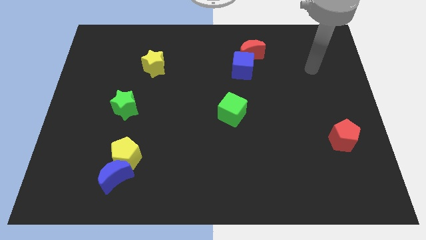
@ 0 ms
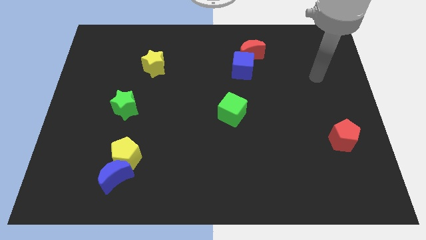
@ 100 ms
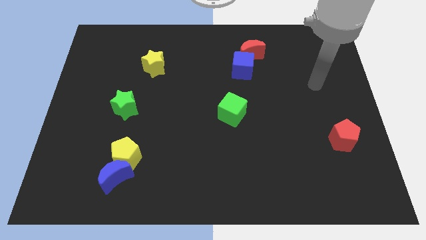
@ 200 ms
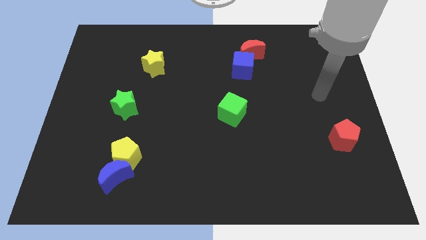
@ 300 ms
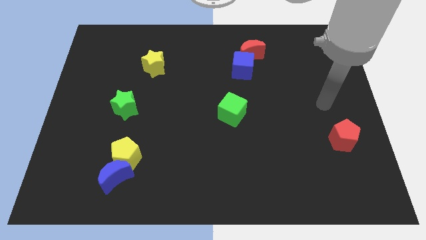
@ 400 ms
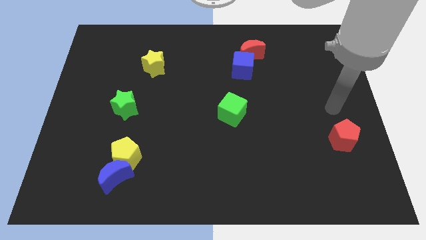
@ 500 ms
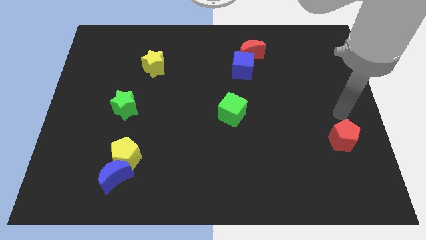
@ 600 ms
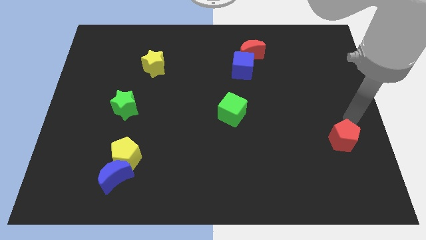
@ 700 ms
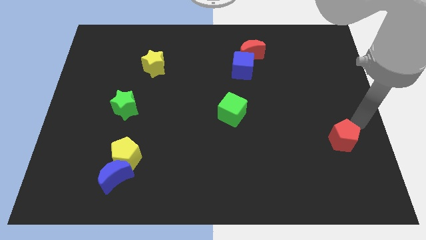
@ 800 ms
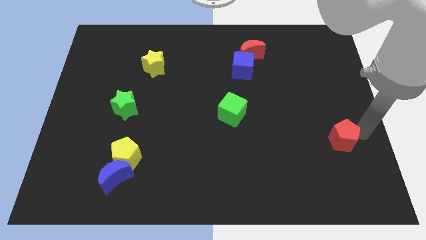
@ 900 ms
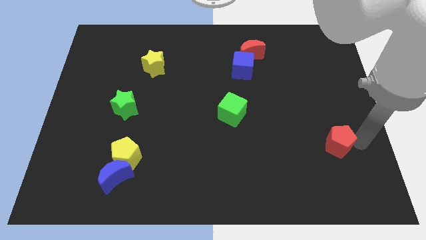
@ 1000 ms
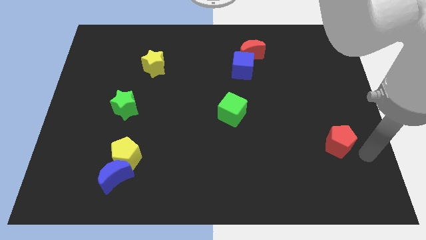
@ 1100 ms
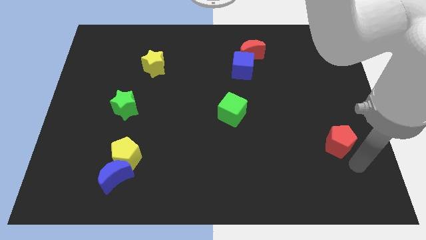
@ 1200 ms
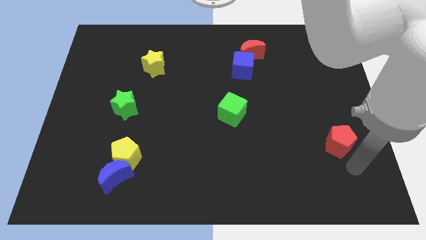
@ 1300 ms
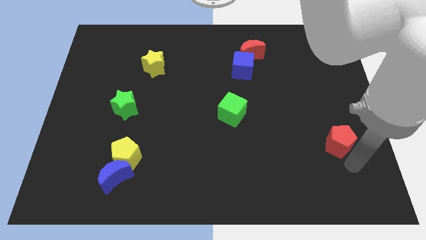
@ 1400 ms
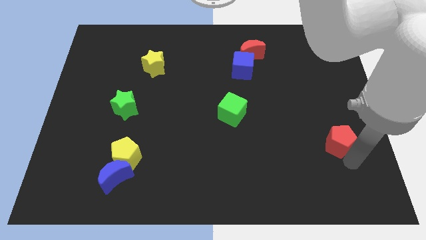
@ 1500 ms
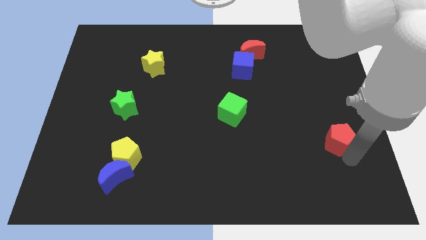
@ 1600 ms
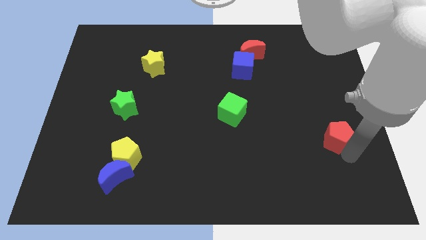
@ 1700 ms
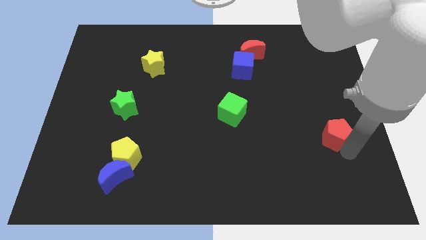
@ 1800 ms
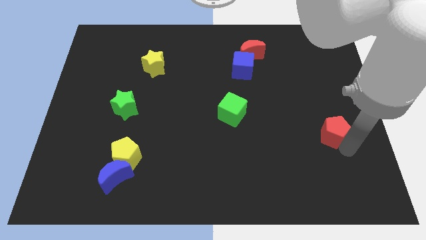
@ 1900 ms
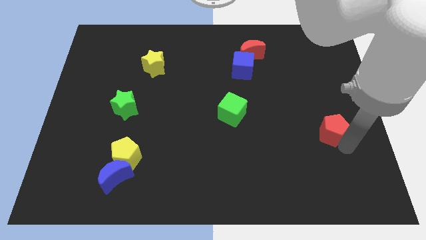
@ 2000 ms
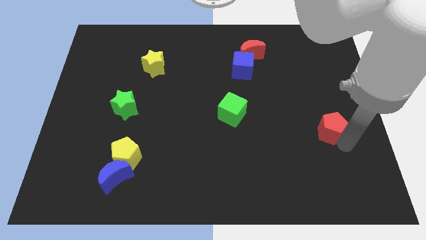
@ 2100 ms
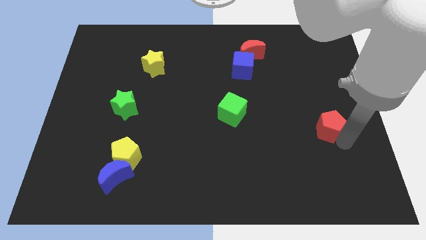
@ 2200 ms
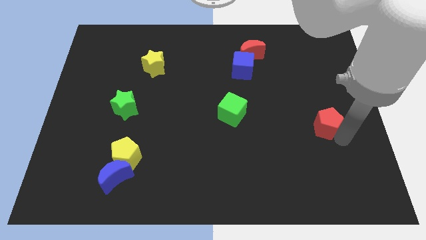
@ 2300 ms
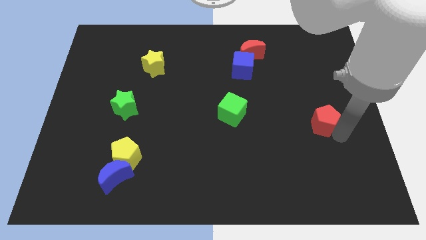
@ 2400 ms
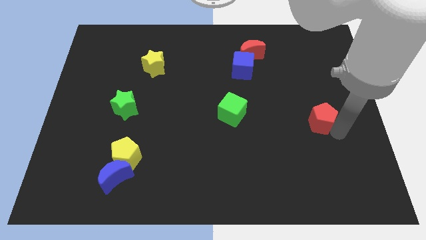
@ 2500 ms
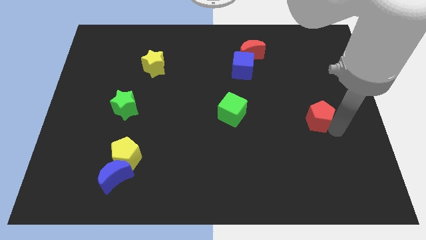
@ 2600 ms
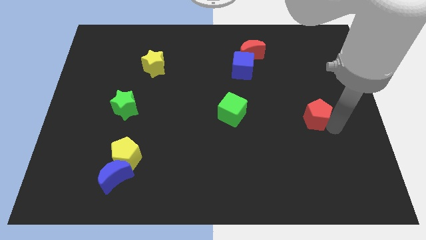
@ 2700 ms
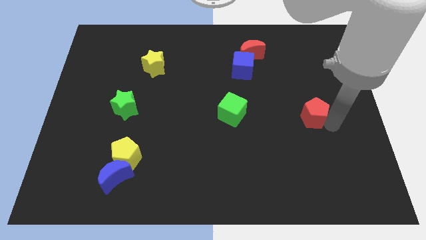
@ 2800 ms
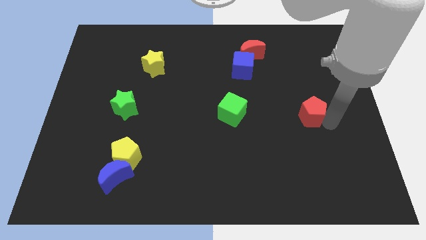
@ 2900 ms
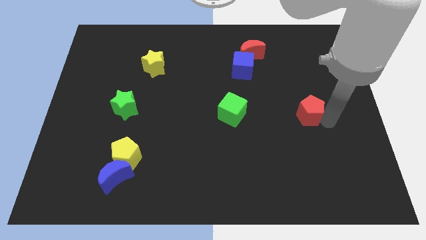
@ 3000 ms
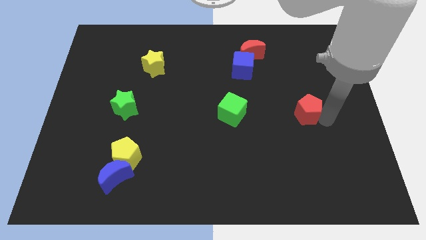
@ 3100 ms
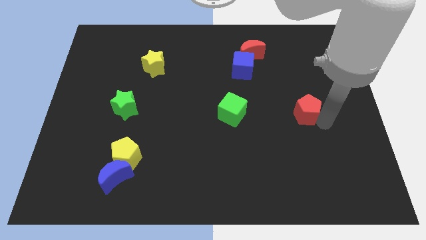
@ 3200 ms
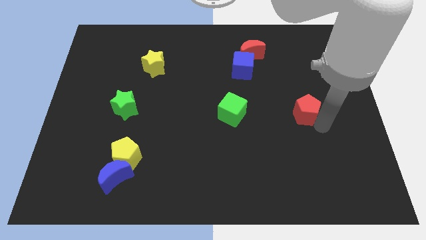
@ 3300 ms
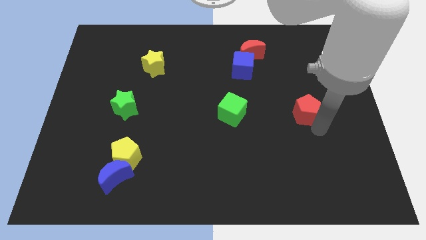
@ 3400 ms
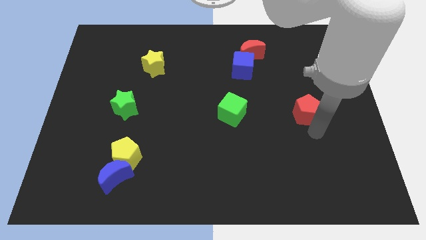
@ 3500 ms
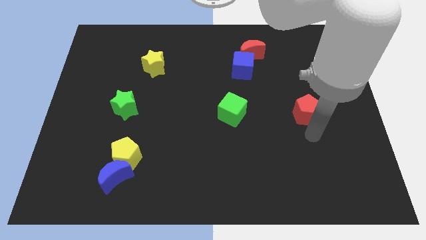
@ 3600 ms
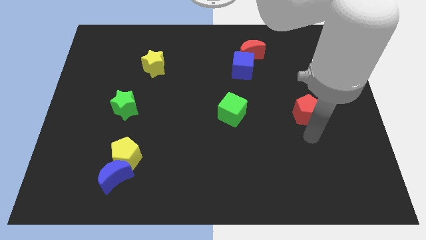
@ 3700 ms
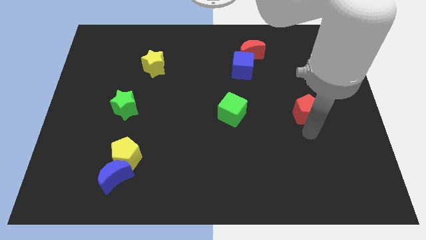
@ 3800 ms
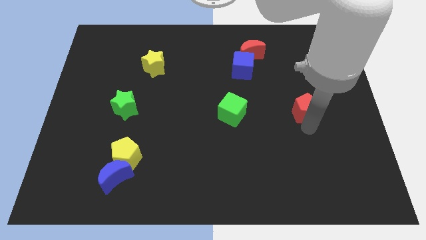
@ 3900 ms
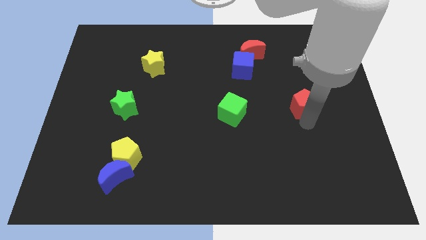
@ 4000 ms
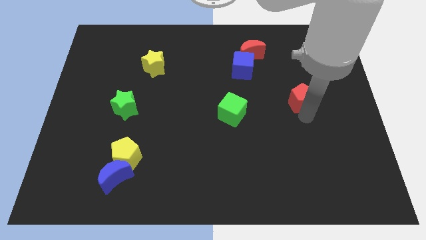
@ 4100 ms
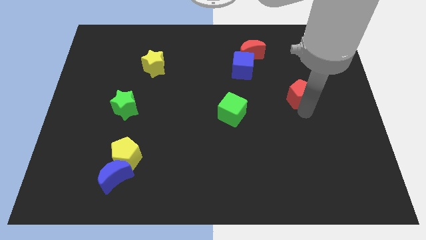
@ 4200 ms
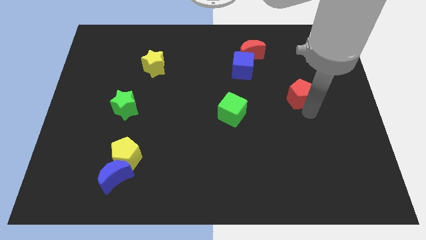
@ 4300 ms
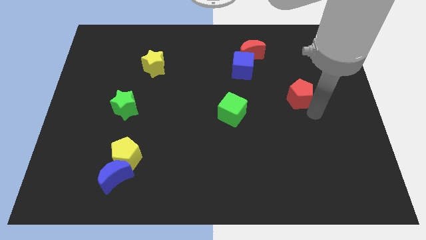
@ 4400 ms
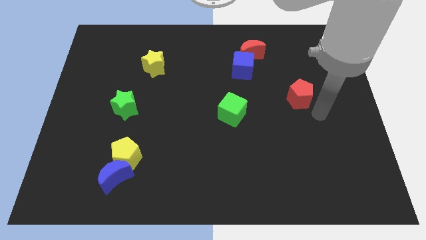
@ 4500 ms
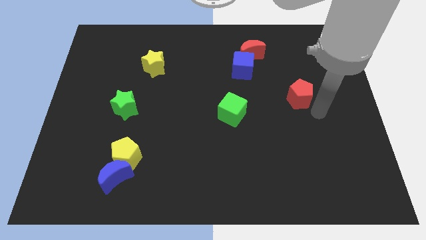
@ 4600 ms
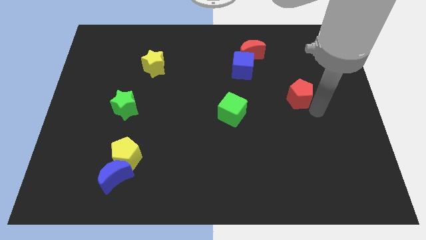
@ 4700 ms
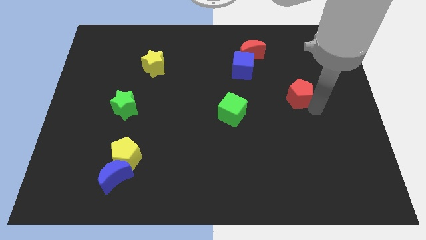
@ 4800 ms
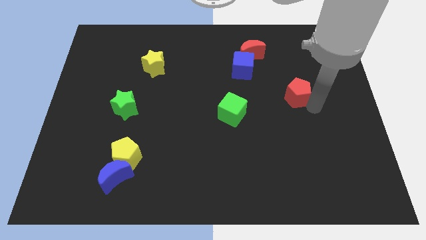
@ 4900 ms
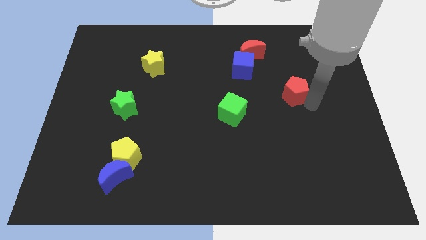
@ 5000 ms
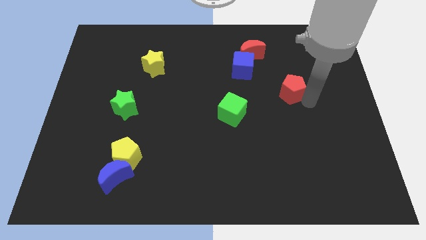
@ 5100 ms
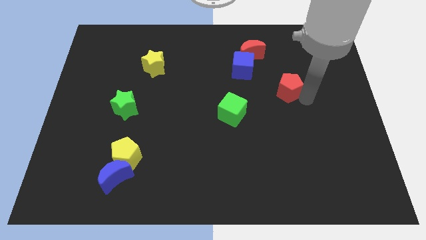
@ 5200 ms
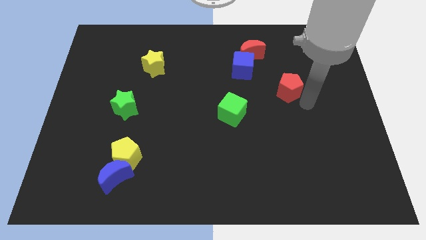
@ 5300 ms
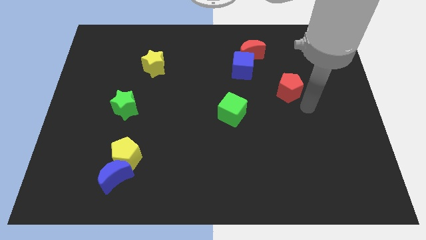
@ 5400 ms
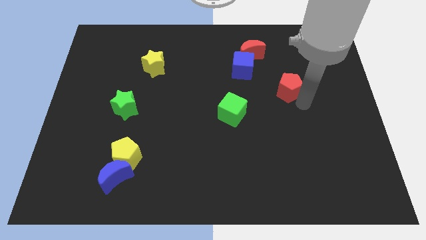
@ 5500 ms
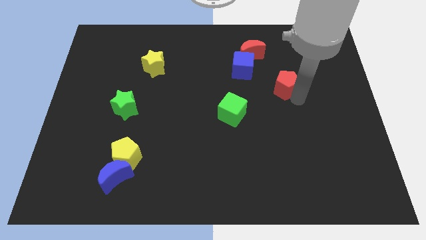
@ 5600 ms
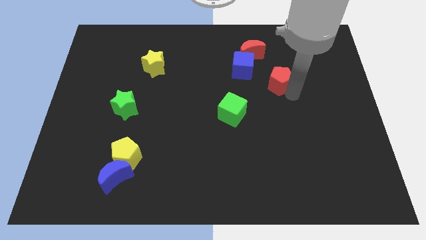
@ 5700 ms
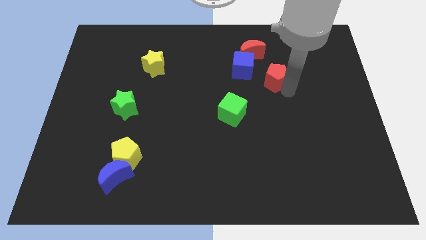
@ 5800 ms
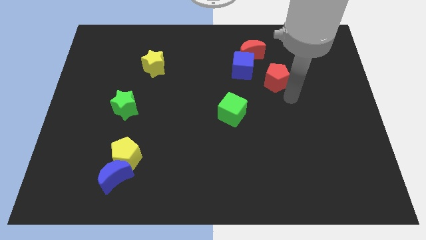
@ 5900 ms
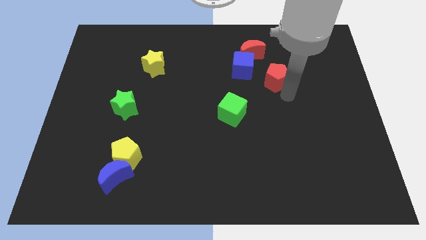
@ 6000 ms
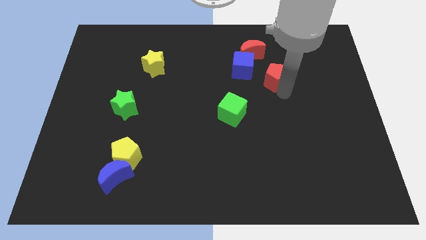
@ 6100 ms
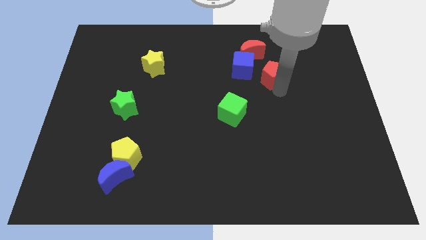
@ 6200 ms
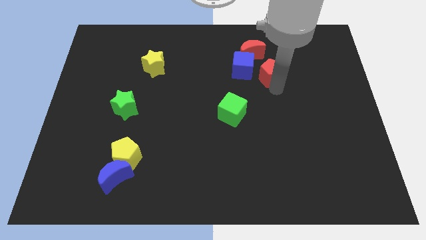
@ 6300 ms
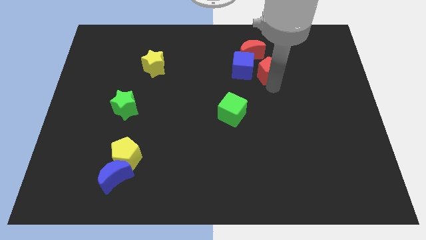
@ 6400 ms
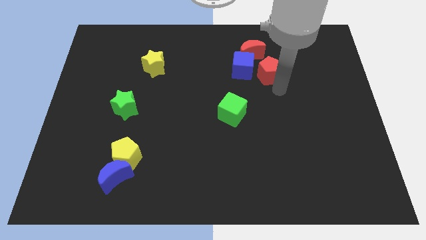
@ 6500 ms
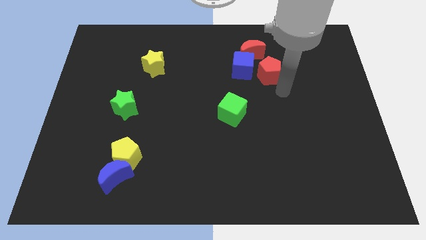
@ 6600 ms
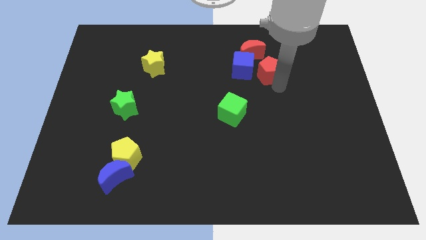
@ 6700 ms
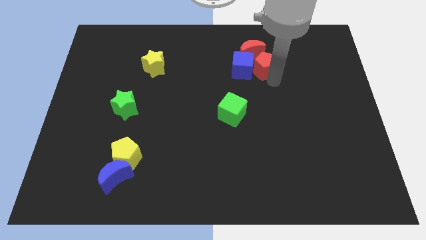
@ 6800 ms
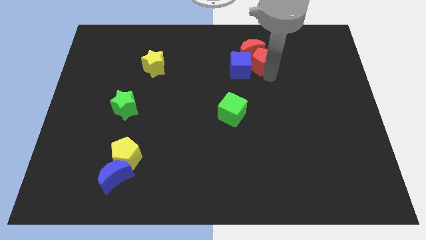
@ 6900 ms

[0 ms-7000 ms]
put the red pentagon close to the red moon

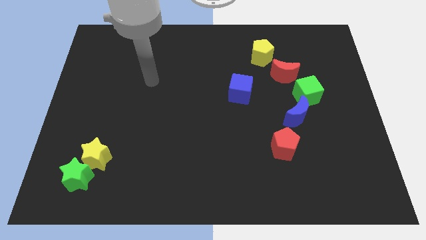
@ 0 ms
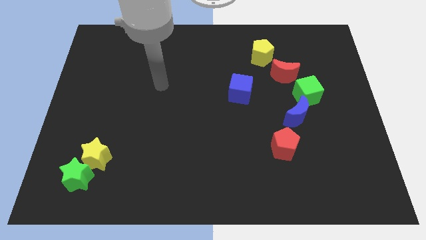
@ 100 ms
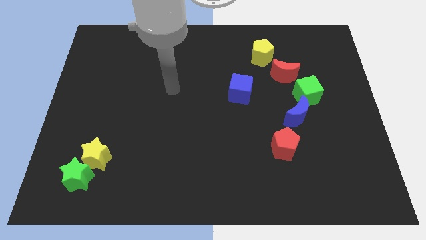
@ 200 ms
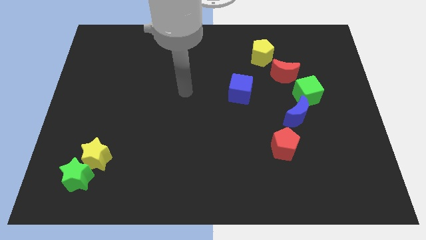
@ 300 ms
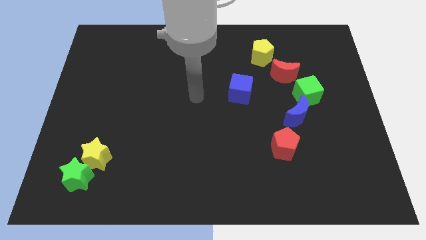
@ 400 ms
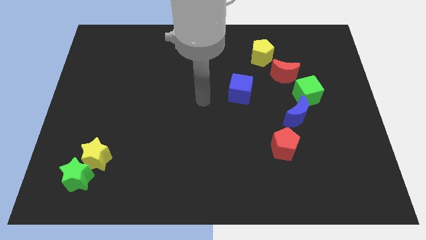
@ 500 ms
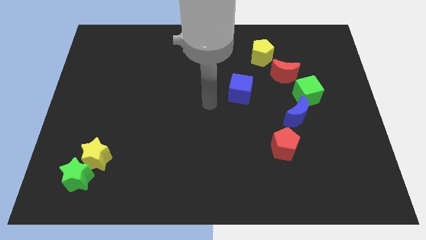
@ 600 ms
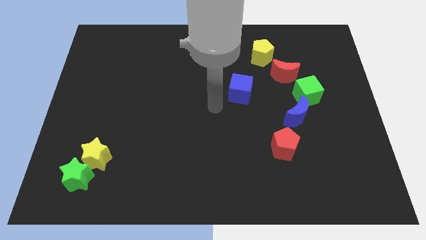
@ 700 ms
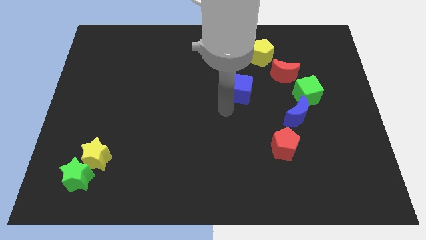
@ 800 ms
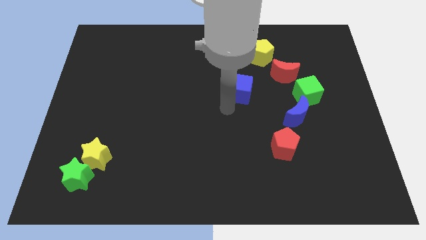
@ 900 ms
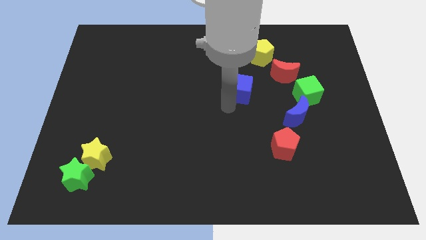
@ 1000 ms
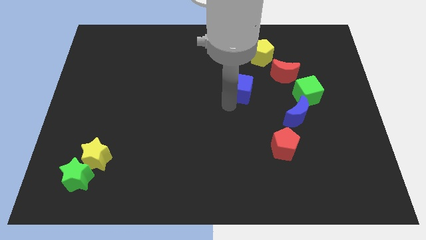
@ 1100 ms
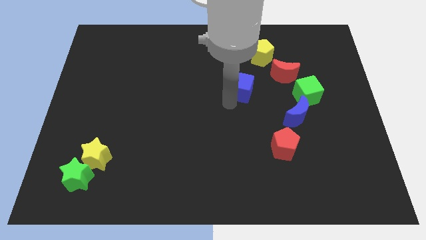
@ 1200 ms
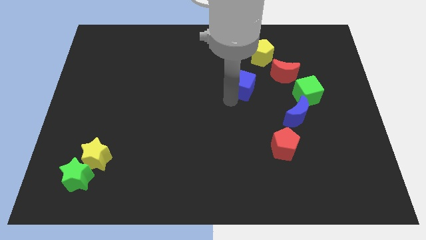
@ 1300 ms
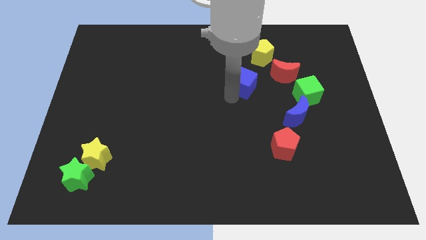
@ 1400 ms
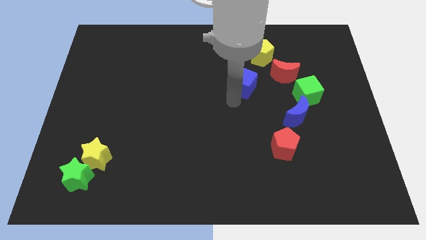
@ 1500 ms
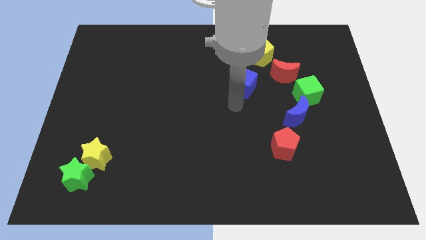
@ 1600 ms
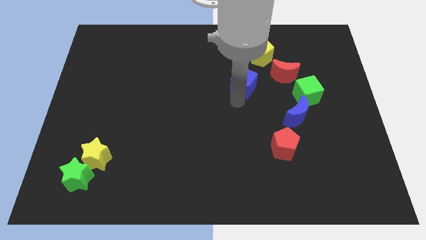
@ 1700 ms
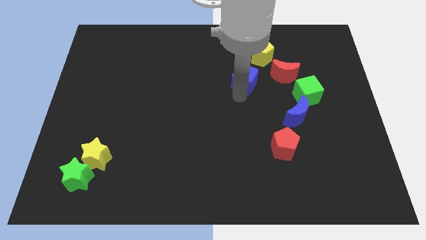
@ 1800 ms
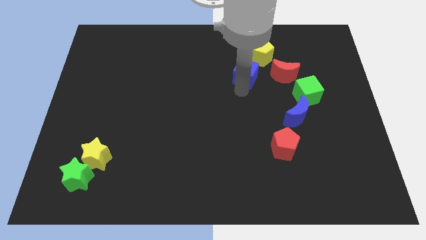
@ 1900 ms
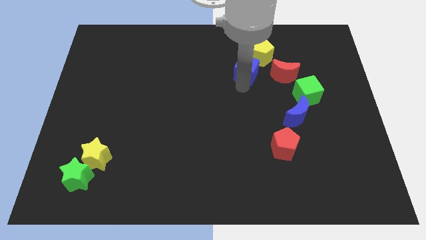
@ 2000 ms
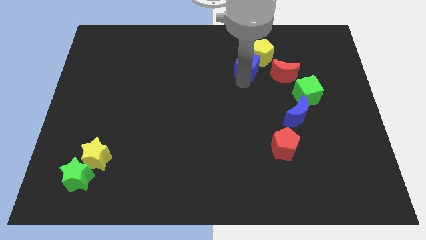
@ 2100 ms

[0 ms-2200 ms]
push the blue cube towards the yellow pentagon
